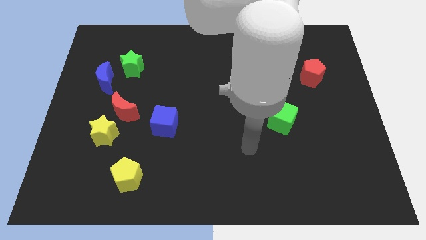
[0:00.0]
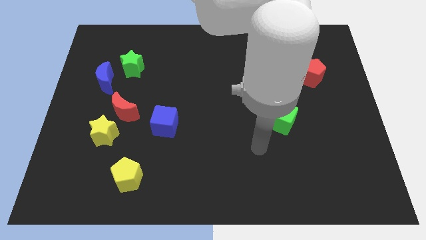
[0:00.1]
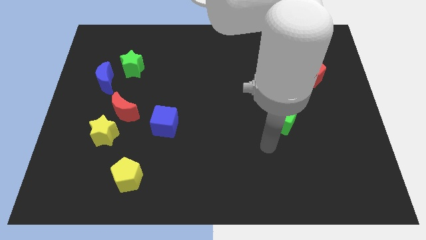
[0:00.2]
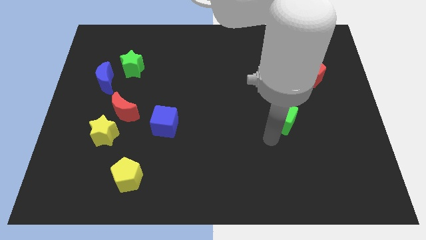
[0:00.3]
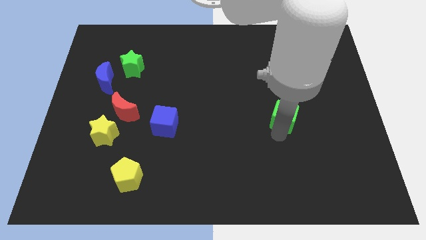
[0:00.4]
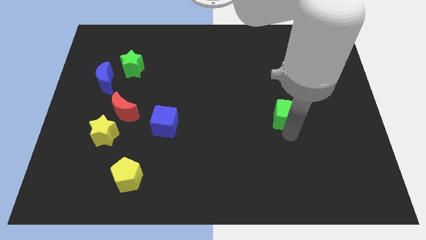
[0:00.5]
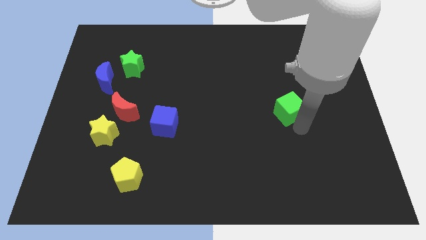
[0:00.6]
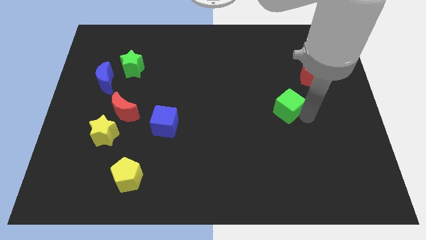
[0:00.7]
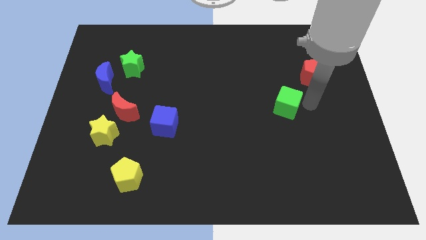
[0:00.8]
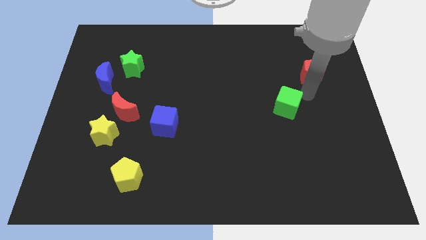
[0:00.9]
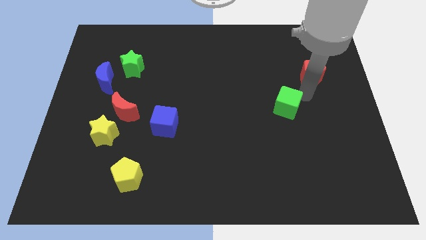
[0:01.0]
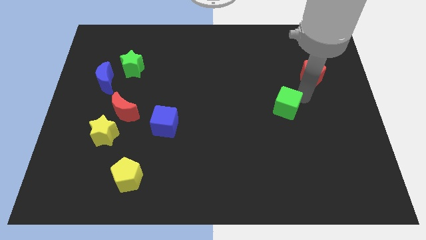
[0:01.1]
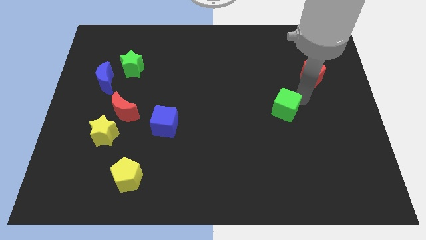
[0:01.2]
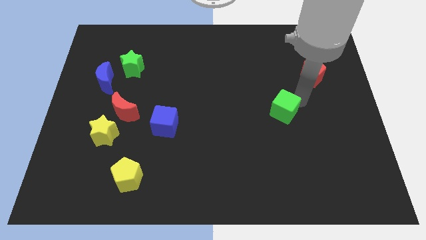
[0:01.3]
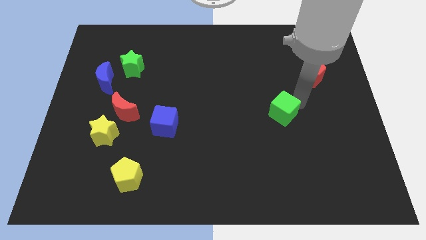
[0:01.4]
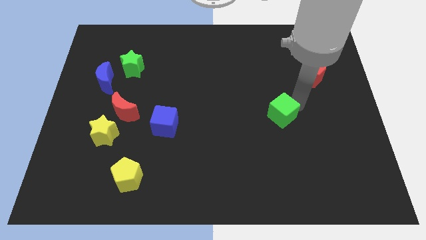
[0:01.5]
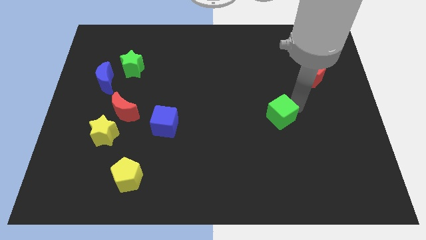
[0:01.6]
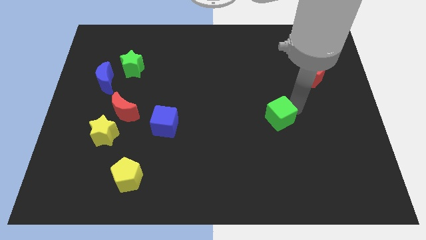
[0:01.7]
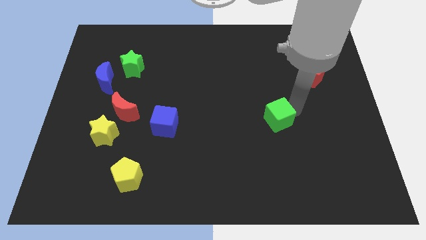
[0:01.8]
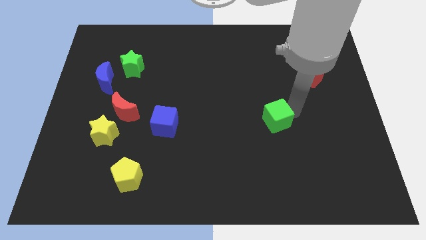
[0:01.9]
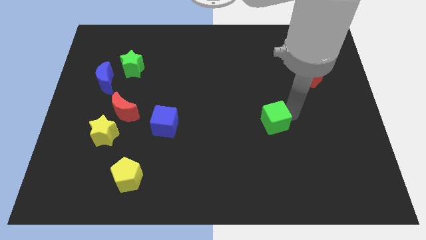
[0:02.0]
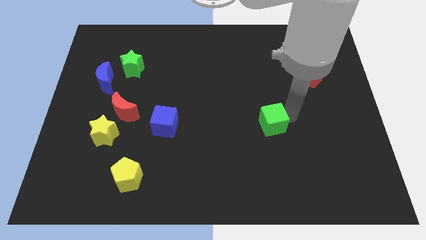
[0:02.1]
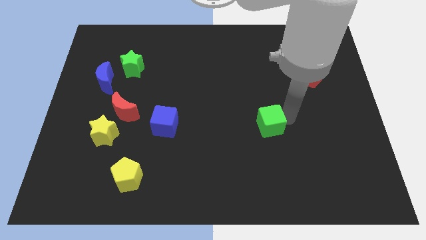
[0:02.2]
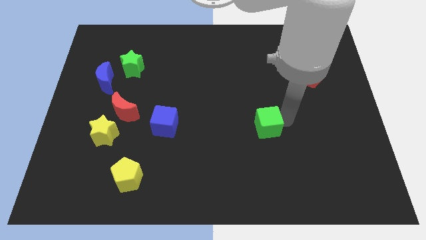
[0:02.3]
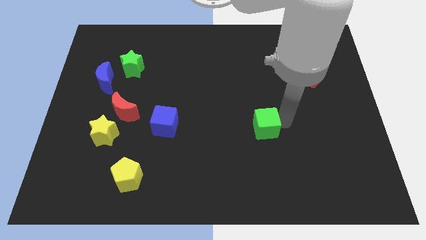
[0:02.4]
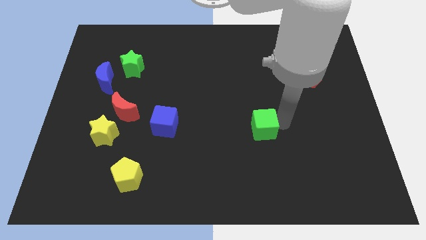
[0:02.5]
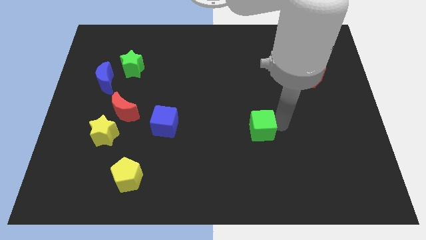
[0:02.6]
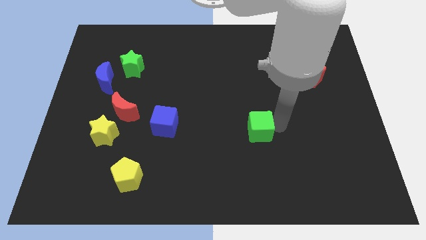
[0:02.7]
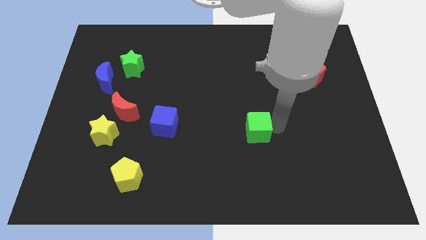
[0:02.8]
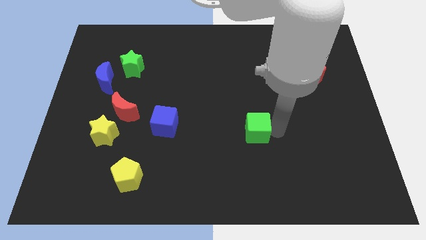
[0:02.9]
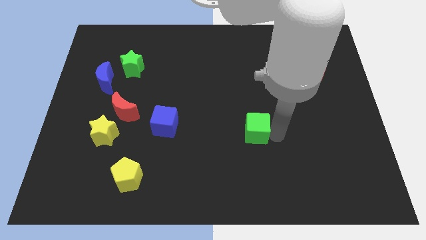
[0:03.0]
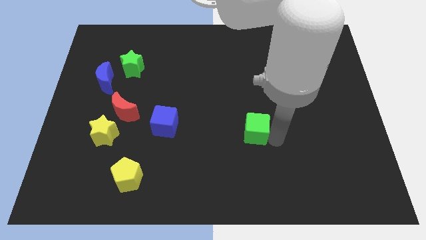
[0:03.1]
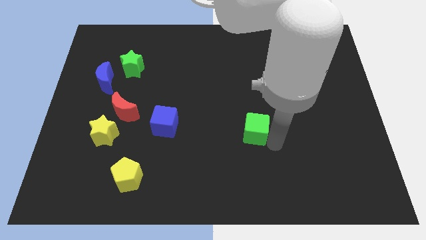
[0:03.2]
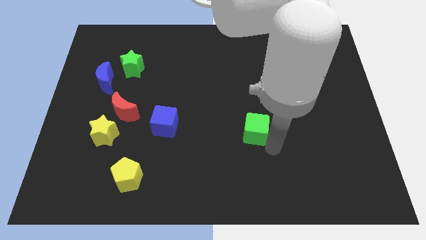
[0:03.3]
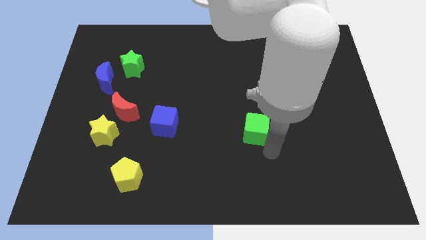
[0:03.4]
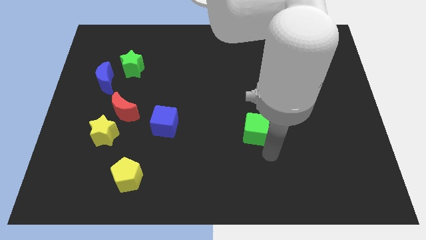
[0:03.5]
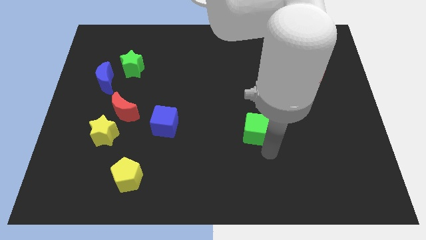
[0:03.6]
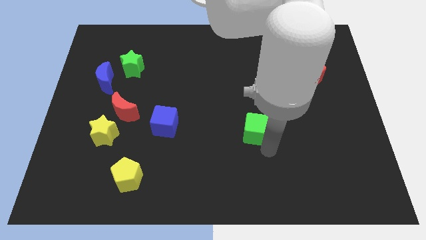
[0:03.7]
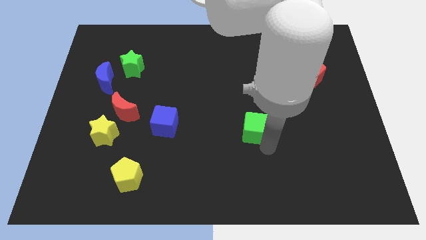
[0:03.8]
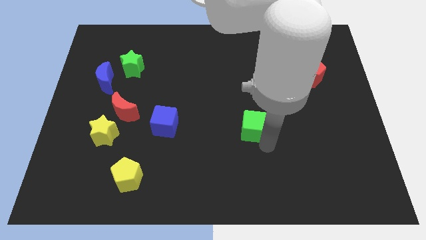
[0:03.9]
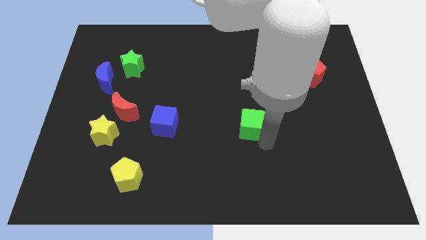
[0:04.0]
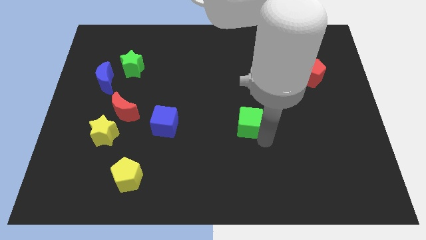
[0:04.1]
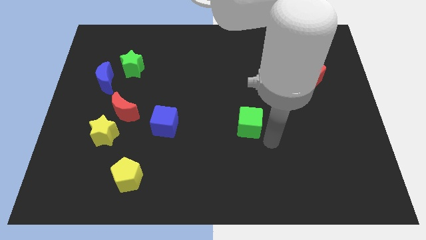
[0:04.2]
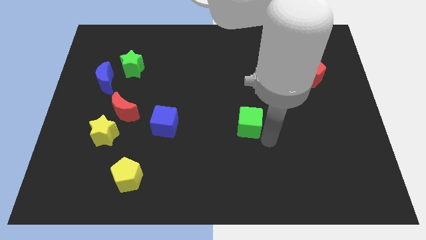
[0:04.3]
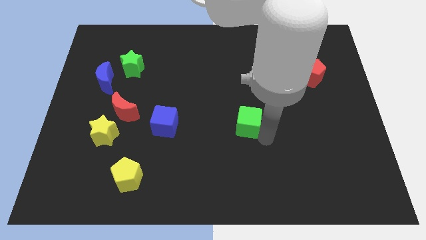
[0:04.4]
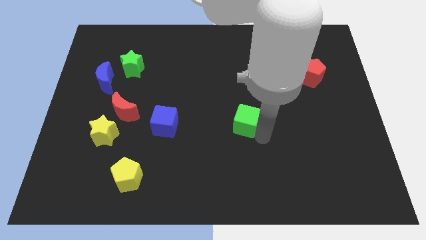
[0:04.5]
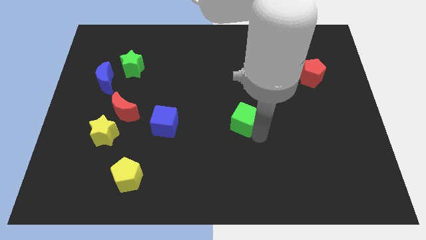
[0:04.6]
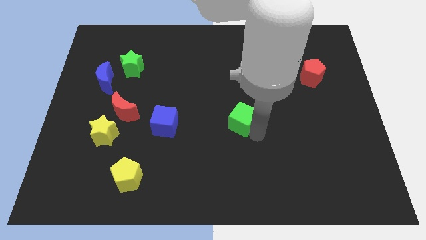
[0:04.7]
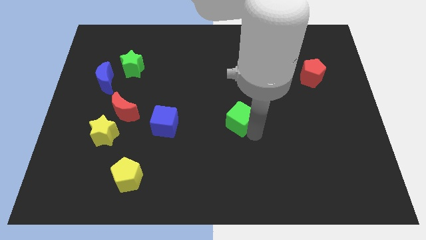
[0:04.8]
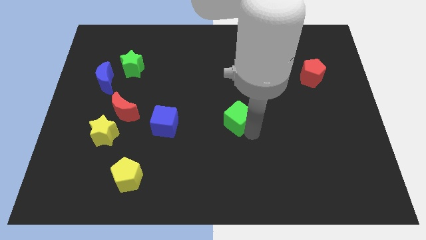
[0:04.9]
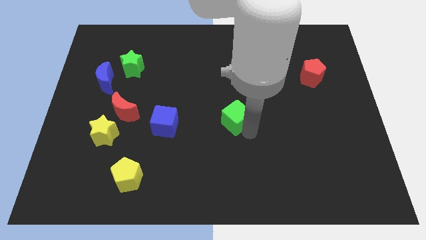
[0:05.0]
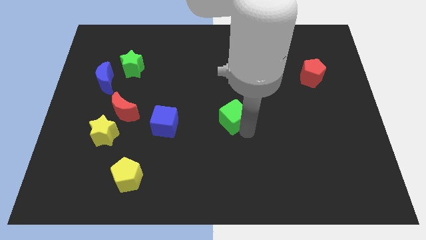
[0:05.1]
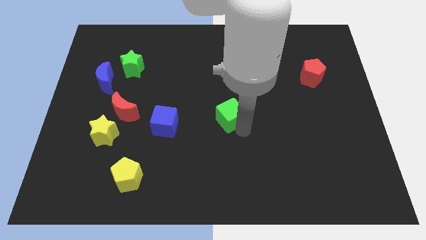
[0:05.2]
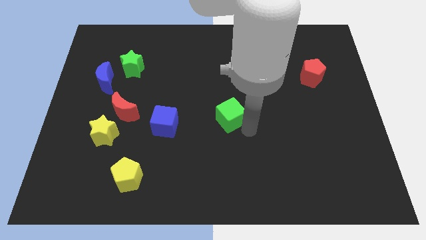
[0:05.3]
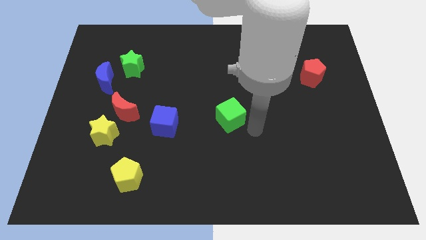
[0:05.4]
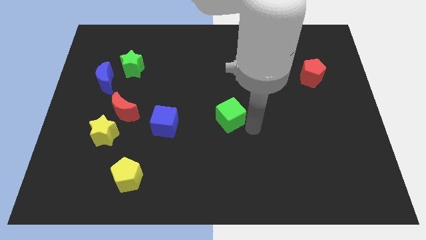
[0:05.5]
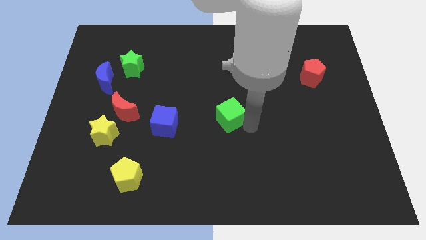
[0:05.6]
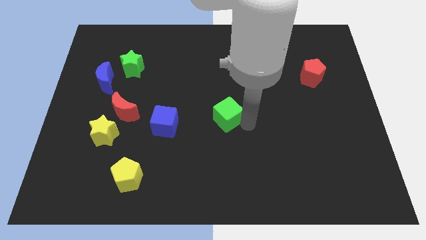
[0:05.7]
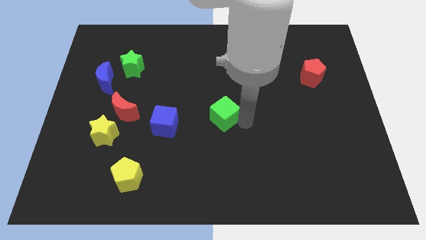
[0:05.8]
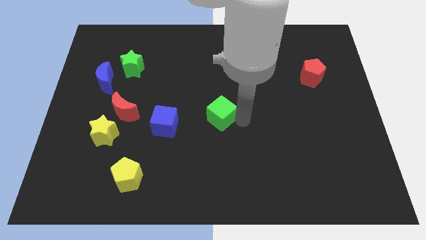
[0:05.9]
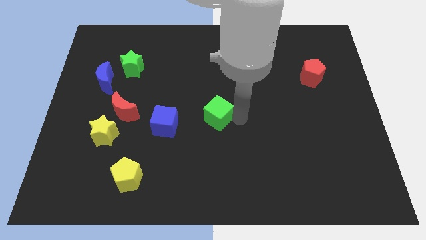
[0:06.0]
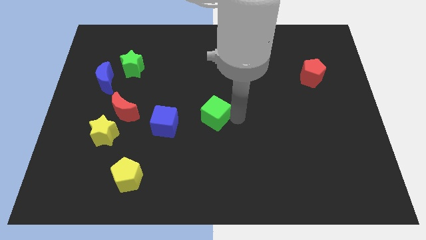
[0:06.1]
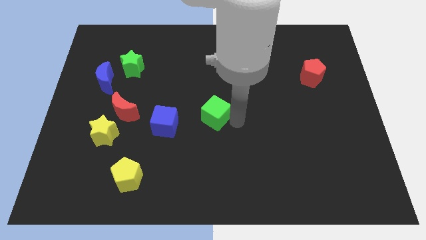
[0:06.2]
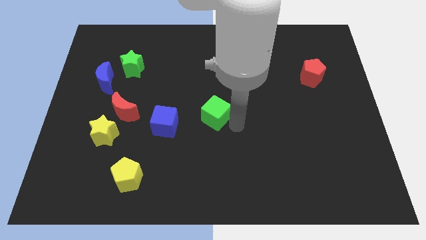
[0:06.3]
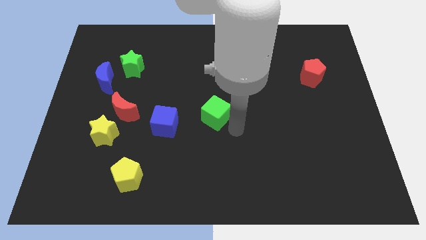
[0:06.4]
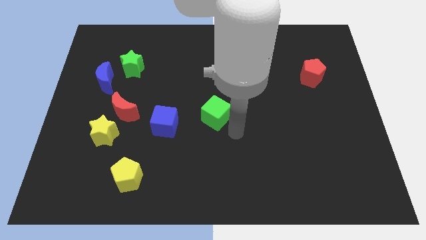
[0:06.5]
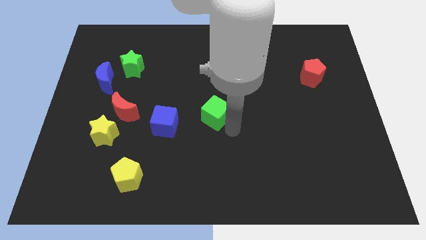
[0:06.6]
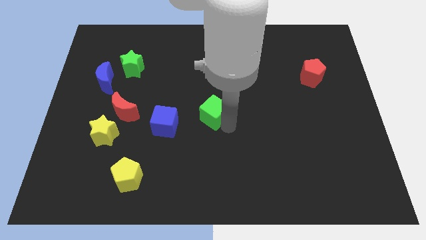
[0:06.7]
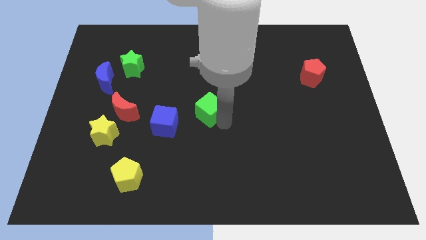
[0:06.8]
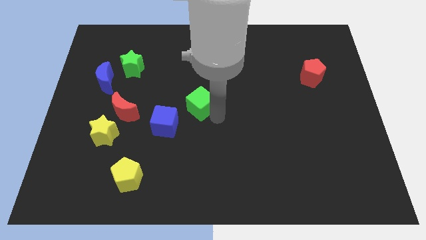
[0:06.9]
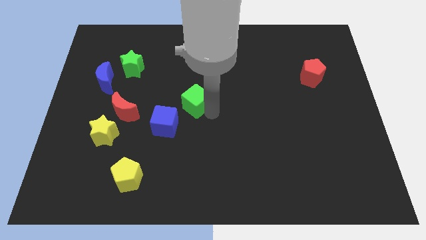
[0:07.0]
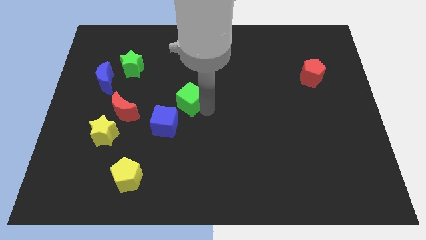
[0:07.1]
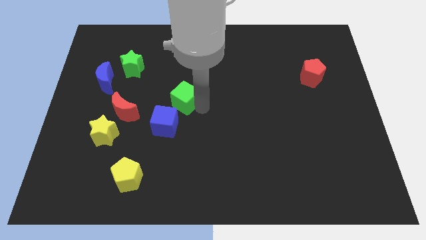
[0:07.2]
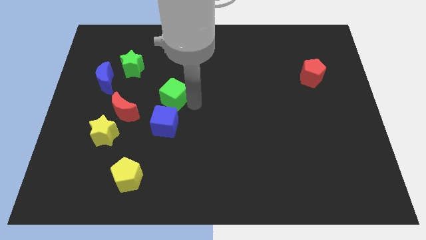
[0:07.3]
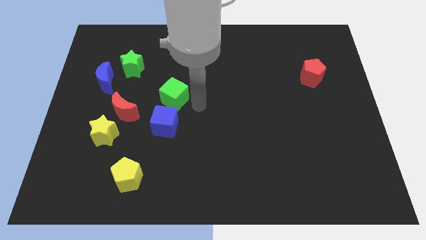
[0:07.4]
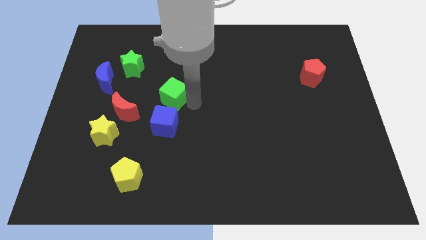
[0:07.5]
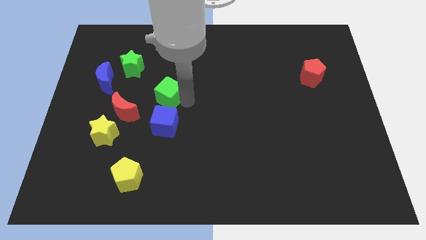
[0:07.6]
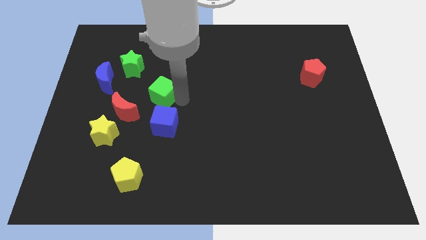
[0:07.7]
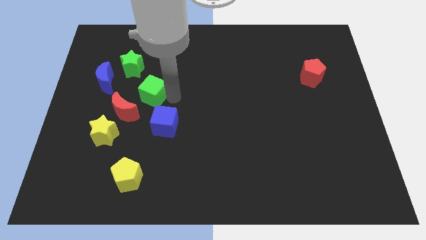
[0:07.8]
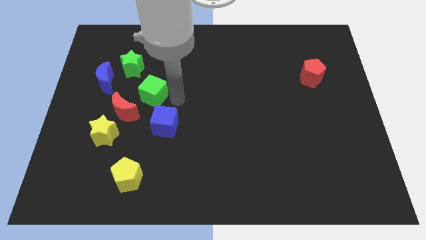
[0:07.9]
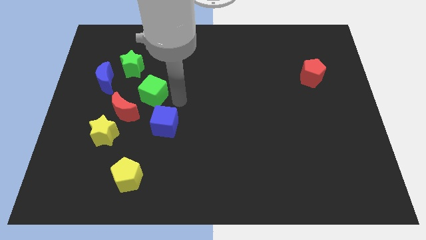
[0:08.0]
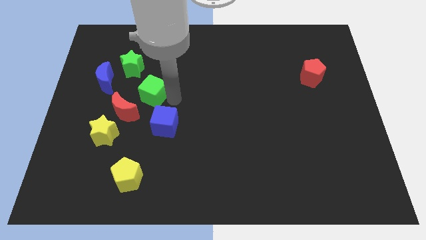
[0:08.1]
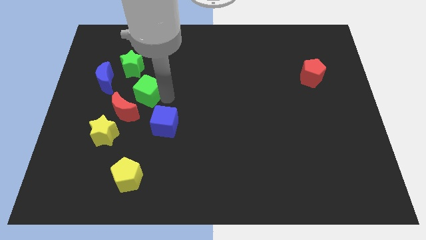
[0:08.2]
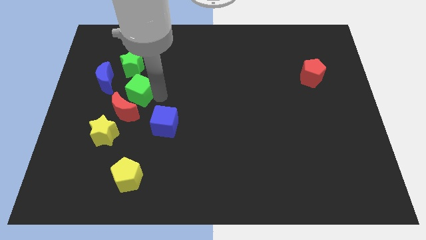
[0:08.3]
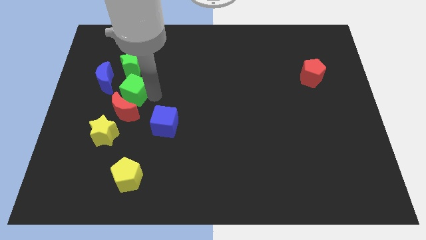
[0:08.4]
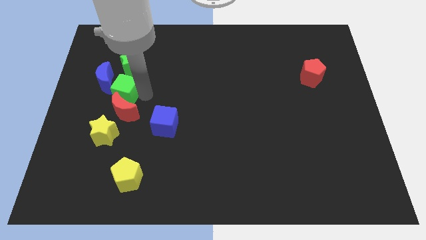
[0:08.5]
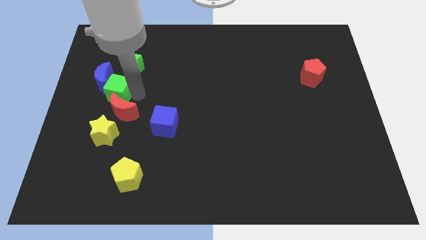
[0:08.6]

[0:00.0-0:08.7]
move the green cube towards the blue moon
